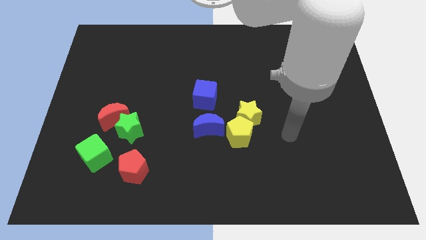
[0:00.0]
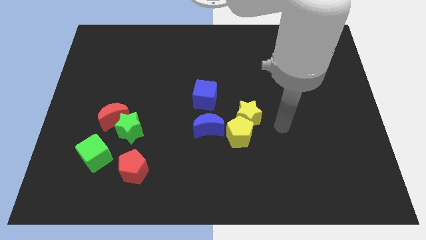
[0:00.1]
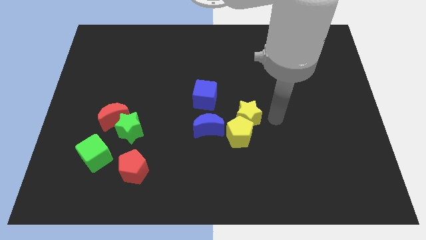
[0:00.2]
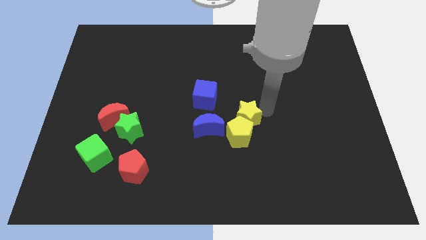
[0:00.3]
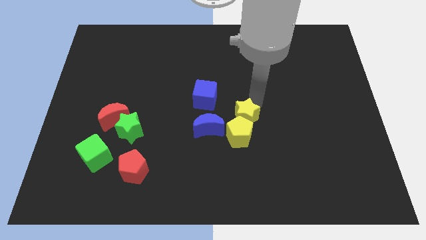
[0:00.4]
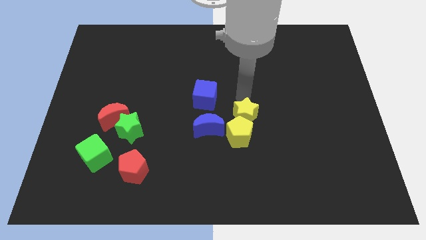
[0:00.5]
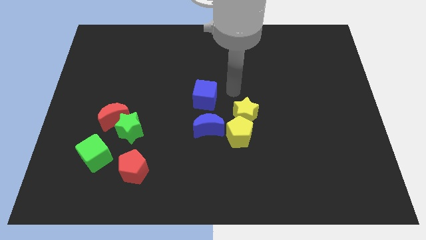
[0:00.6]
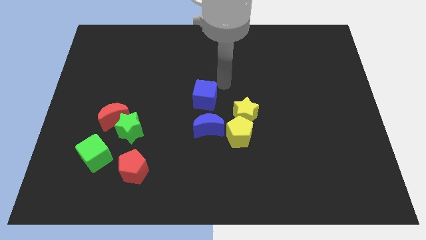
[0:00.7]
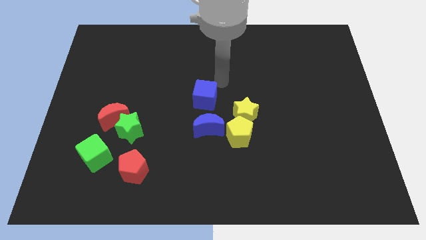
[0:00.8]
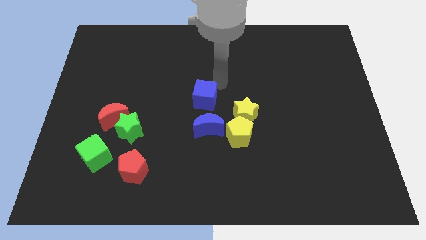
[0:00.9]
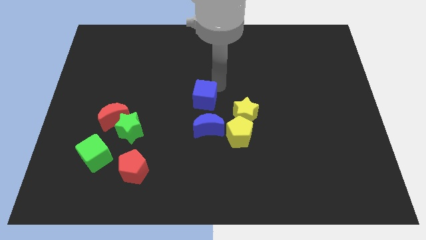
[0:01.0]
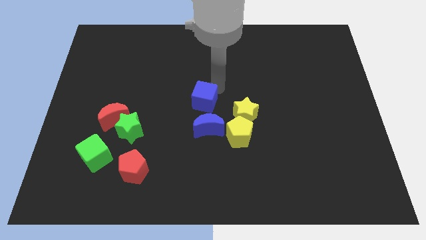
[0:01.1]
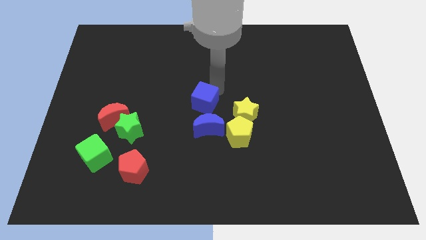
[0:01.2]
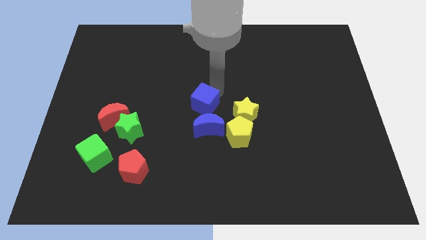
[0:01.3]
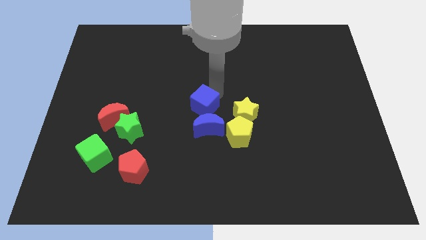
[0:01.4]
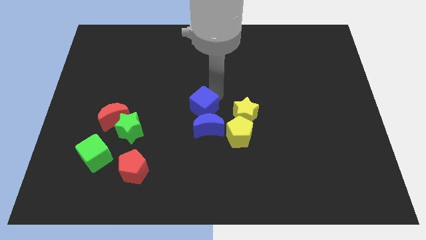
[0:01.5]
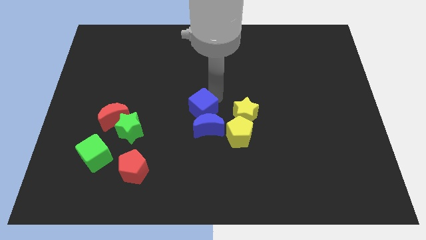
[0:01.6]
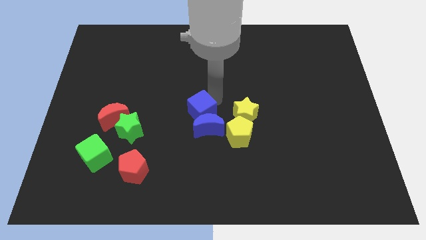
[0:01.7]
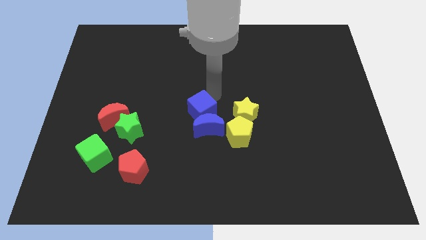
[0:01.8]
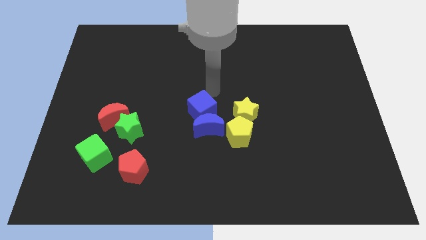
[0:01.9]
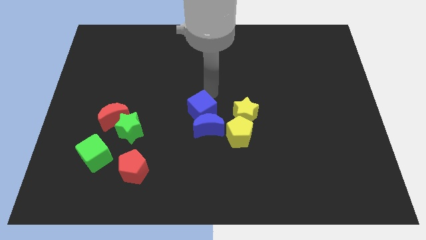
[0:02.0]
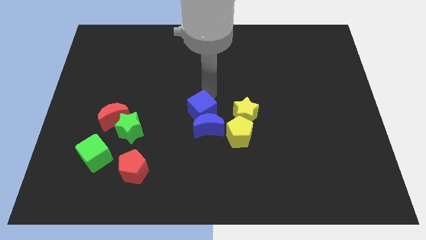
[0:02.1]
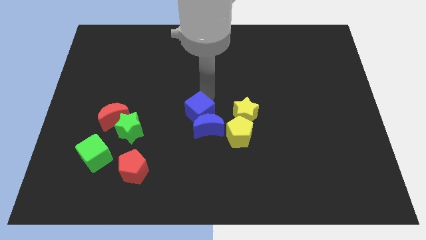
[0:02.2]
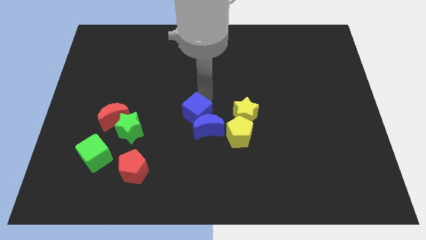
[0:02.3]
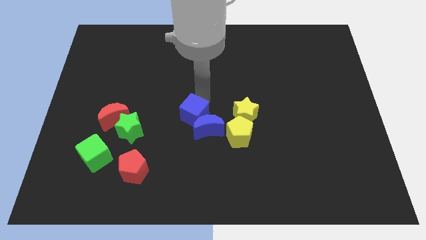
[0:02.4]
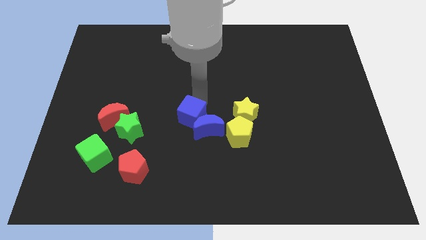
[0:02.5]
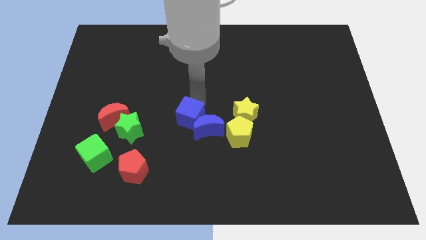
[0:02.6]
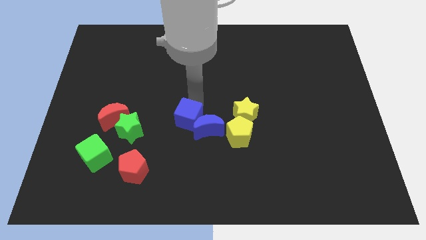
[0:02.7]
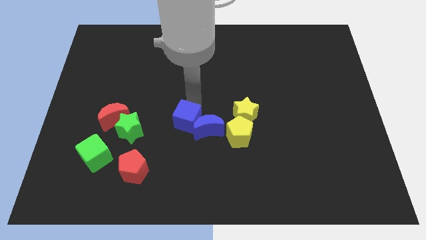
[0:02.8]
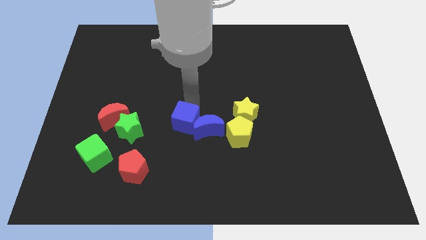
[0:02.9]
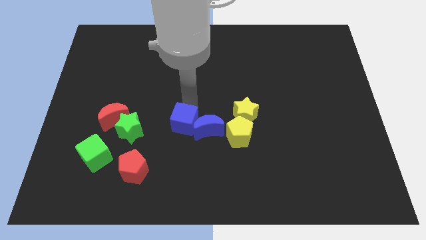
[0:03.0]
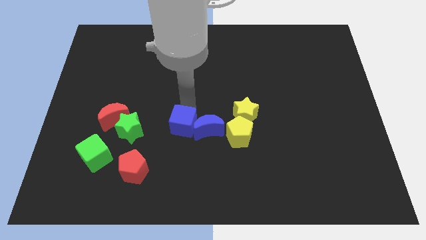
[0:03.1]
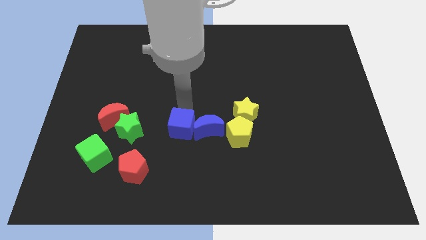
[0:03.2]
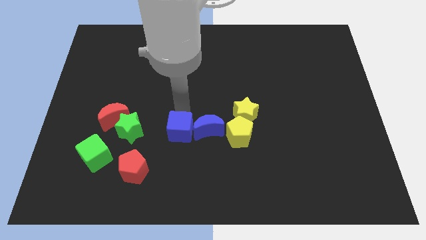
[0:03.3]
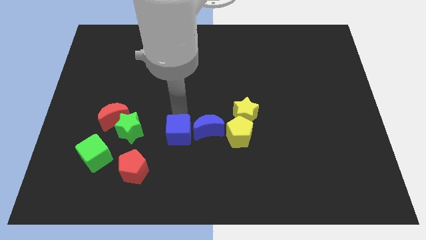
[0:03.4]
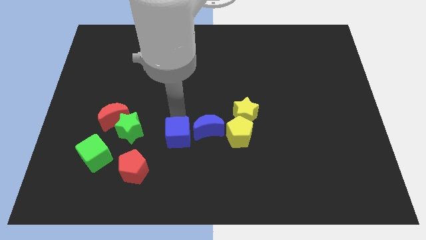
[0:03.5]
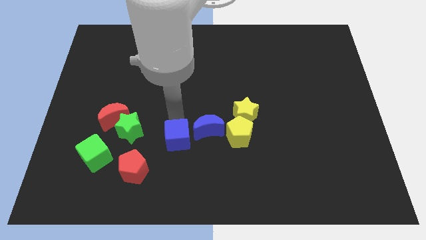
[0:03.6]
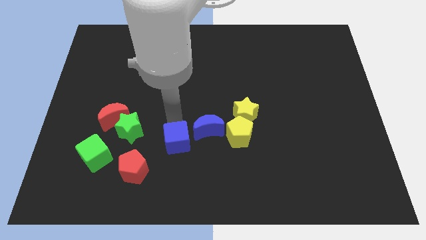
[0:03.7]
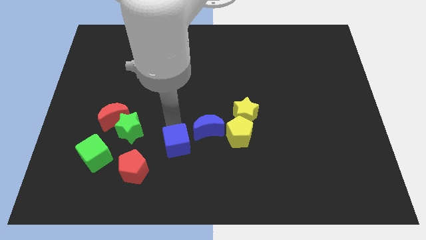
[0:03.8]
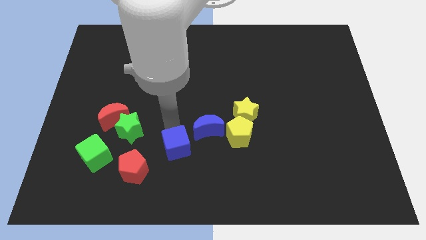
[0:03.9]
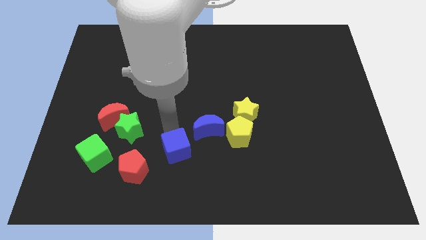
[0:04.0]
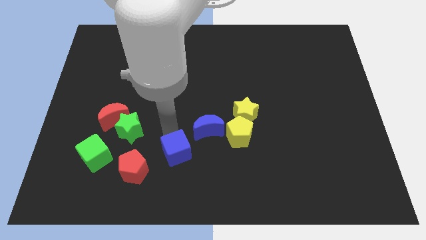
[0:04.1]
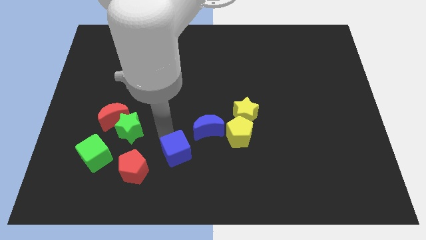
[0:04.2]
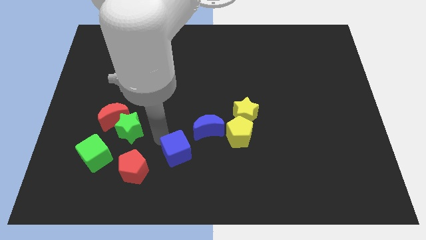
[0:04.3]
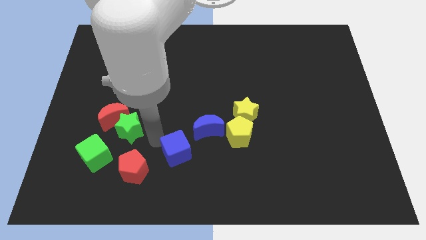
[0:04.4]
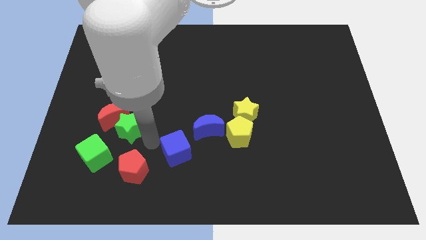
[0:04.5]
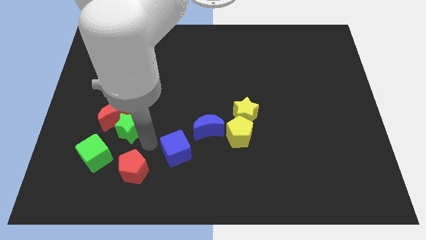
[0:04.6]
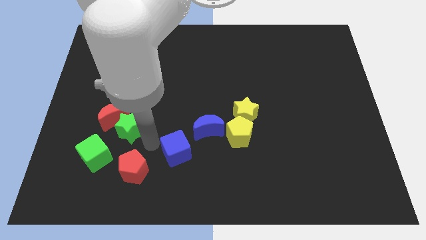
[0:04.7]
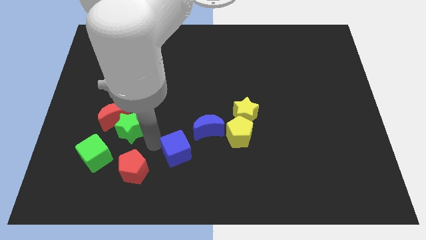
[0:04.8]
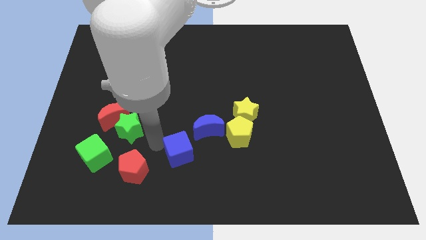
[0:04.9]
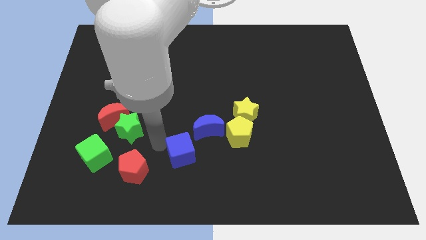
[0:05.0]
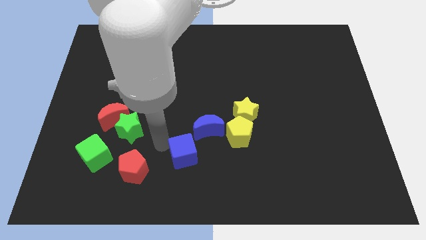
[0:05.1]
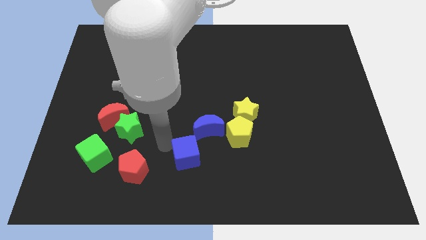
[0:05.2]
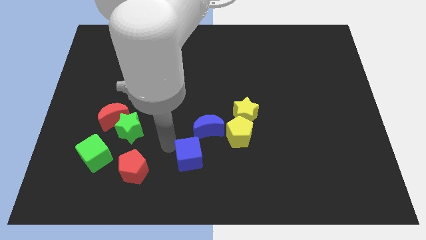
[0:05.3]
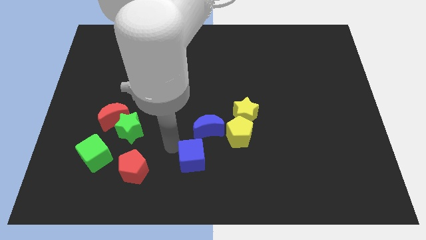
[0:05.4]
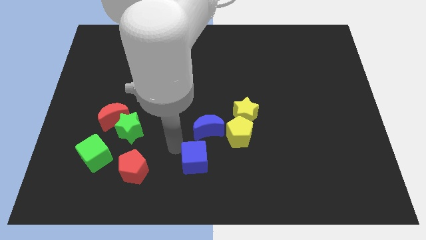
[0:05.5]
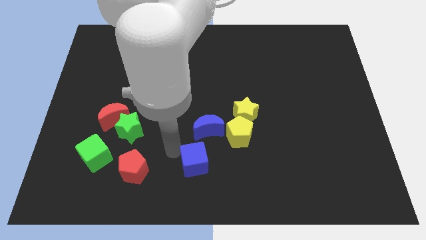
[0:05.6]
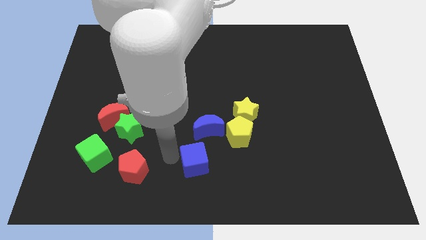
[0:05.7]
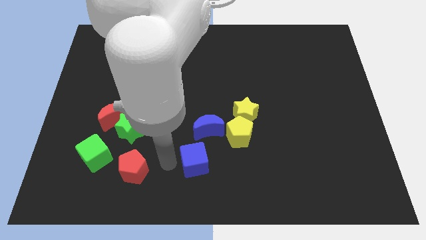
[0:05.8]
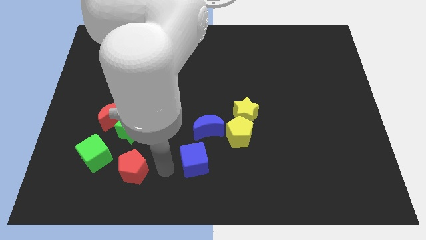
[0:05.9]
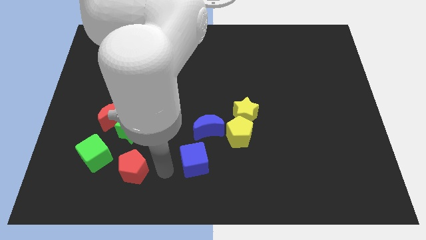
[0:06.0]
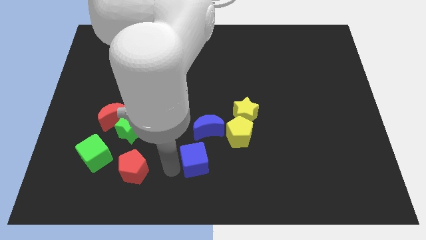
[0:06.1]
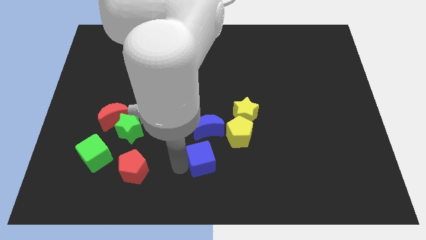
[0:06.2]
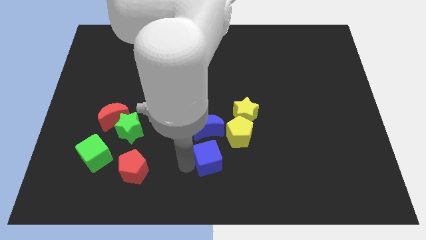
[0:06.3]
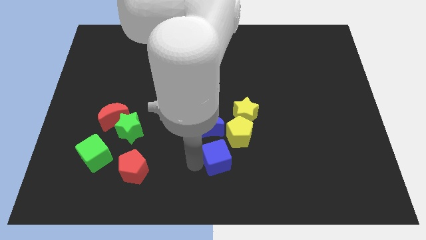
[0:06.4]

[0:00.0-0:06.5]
put the blue cube to the bottom right side of the blue moon

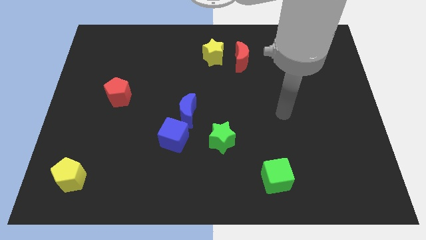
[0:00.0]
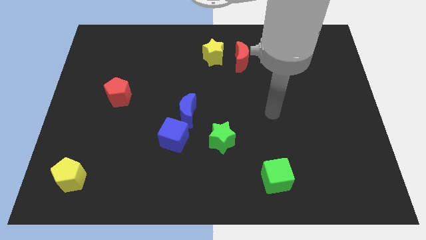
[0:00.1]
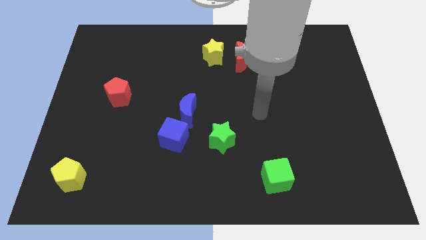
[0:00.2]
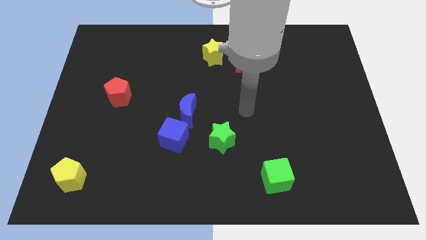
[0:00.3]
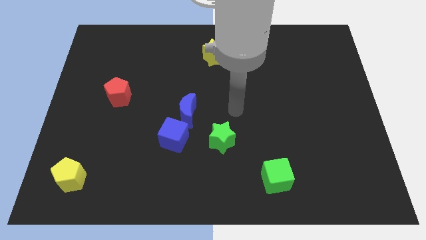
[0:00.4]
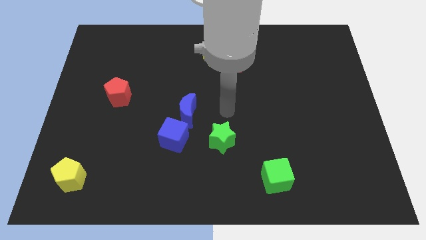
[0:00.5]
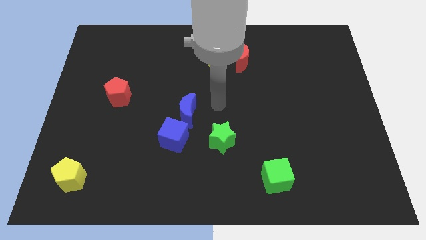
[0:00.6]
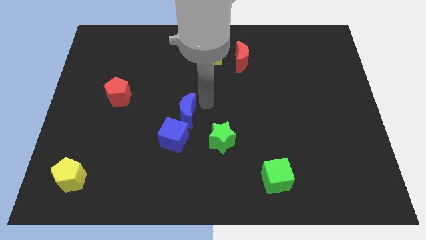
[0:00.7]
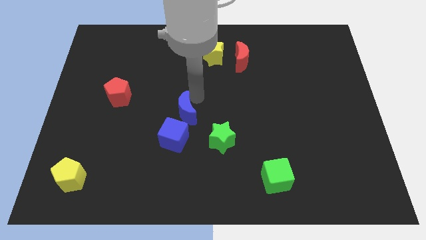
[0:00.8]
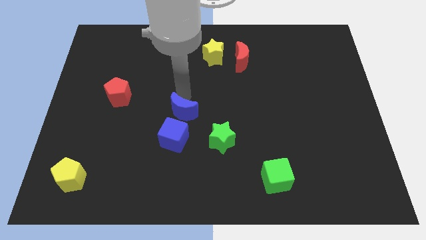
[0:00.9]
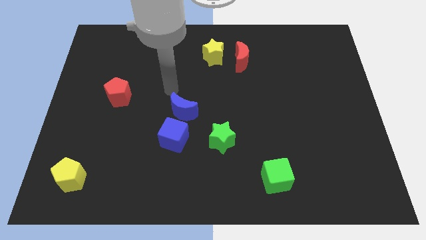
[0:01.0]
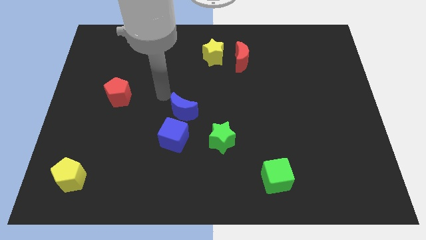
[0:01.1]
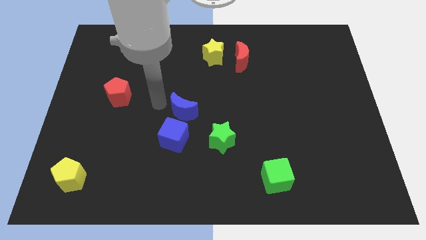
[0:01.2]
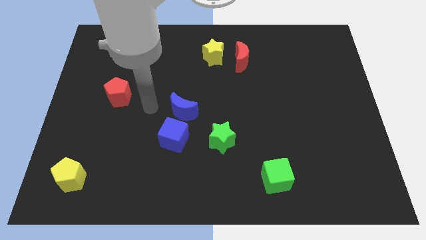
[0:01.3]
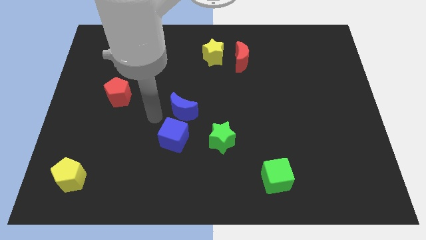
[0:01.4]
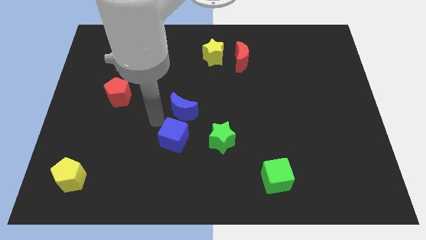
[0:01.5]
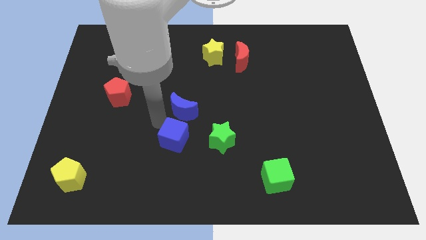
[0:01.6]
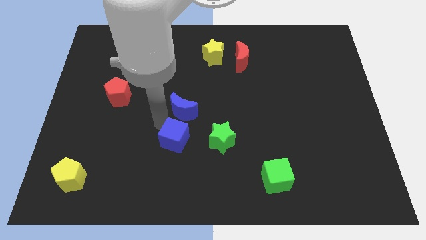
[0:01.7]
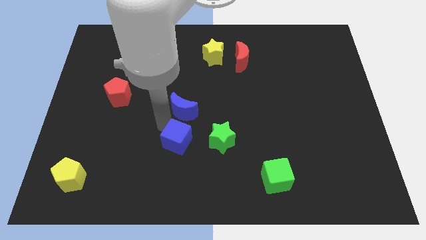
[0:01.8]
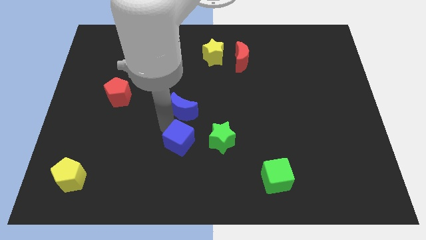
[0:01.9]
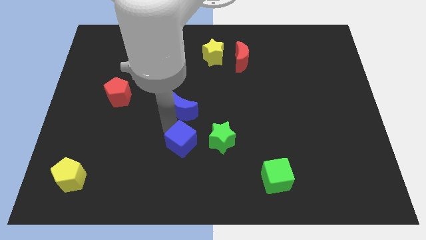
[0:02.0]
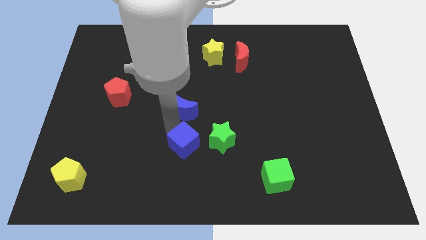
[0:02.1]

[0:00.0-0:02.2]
push the blue cube to the bottom left of the green star
